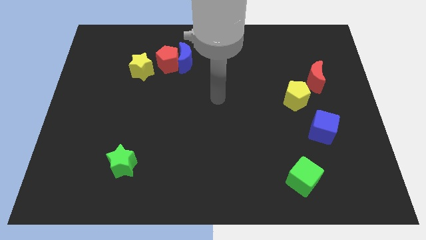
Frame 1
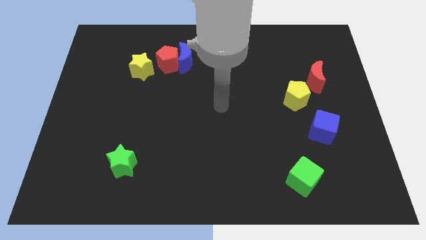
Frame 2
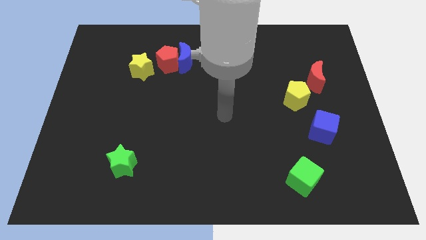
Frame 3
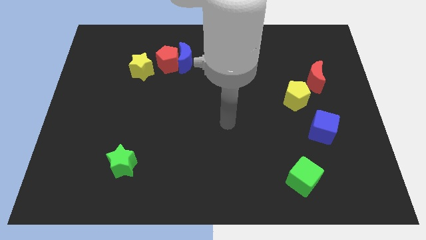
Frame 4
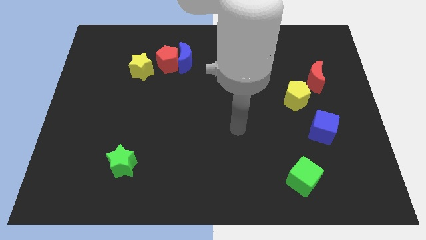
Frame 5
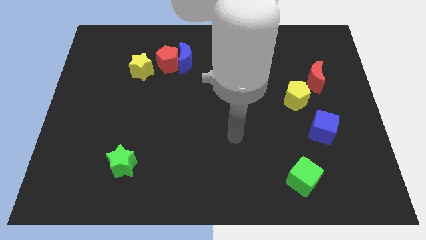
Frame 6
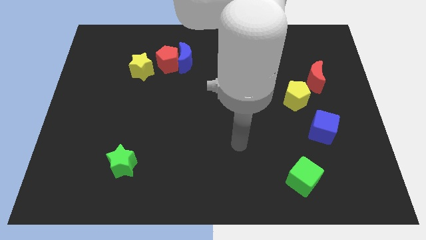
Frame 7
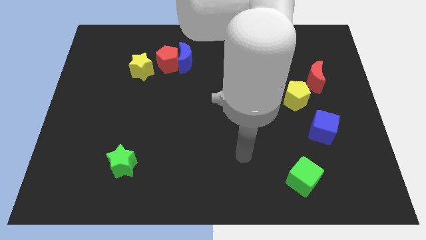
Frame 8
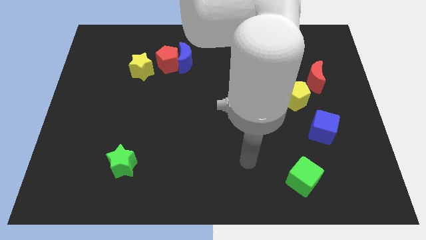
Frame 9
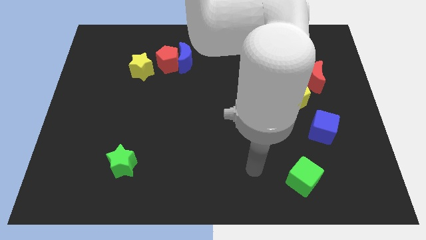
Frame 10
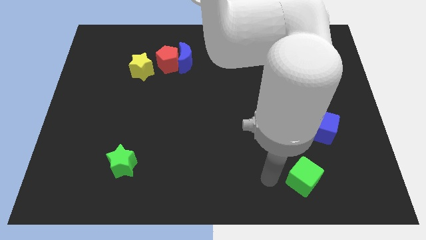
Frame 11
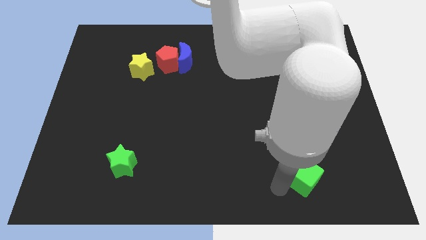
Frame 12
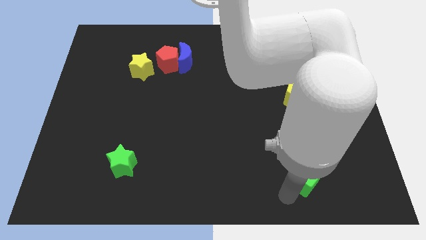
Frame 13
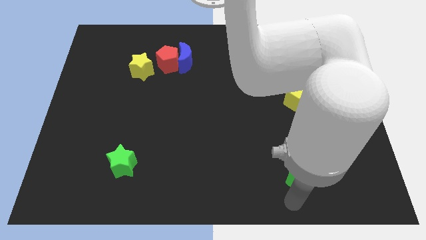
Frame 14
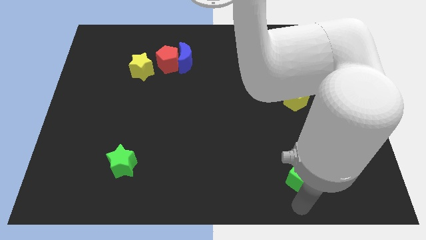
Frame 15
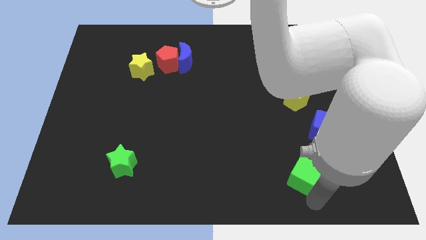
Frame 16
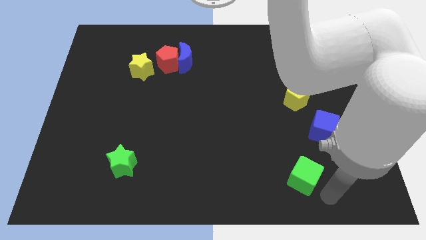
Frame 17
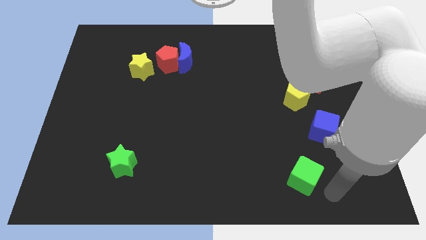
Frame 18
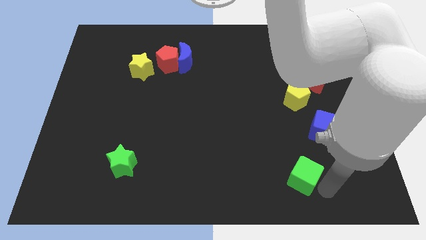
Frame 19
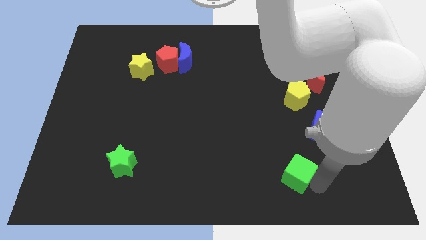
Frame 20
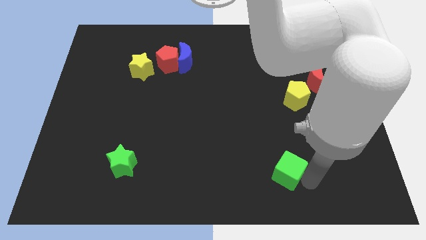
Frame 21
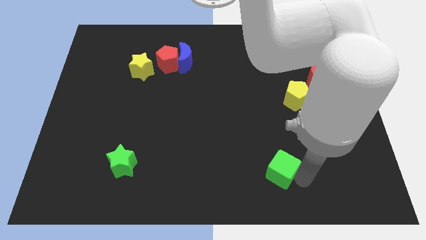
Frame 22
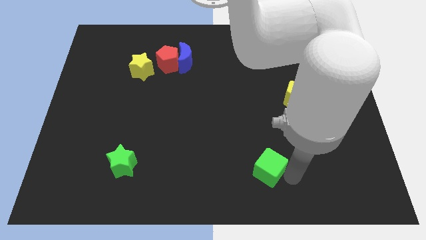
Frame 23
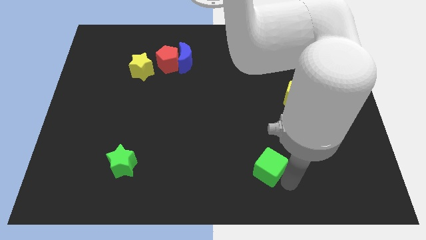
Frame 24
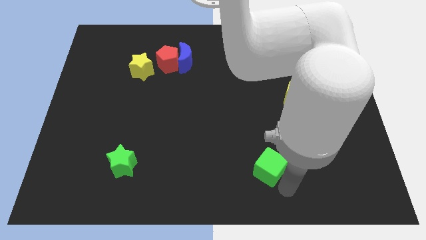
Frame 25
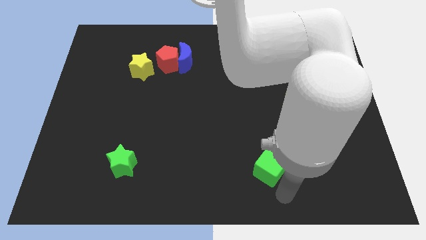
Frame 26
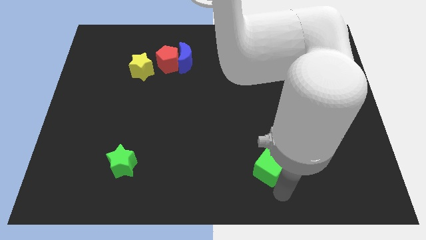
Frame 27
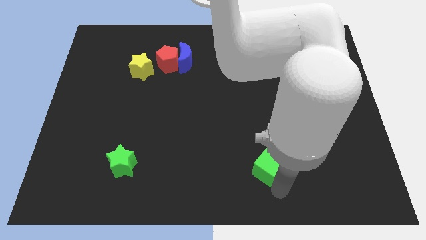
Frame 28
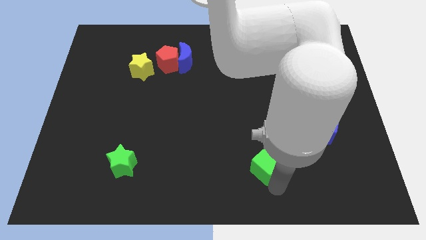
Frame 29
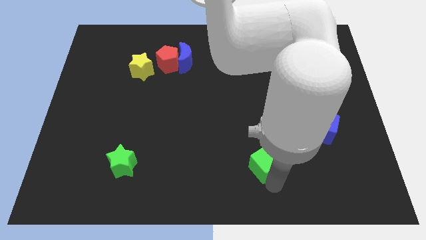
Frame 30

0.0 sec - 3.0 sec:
move the green cube diagonally upwards and left a bit

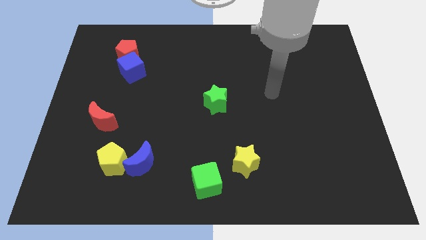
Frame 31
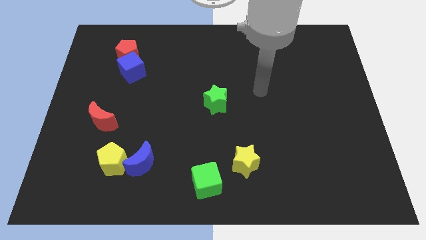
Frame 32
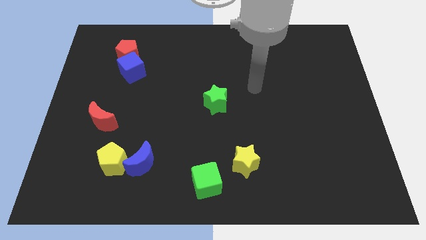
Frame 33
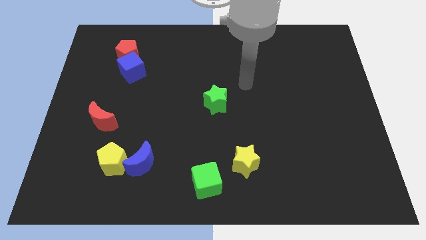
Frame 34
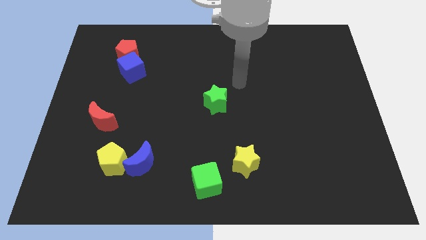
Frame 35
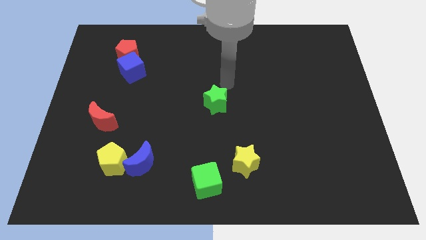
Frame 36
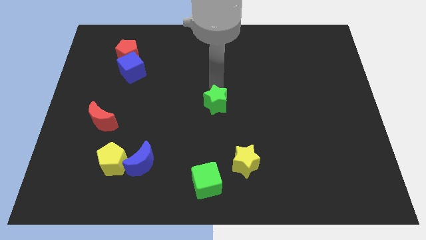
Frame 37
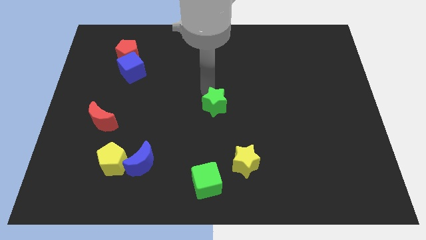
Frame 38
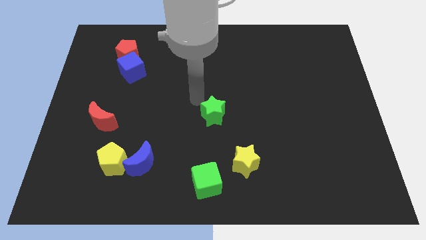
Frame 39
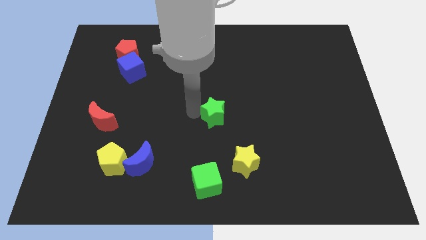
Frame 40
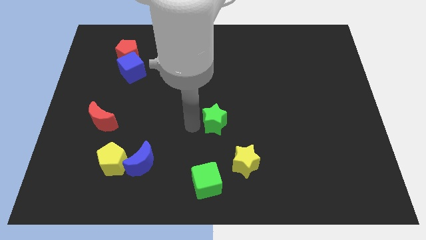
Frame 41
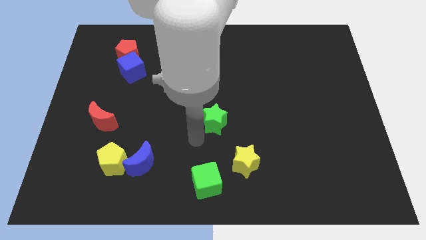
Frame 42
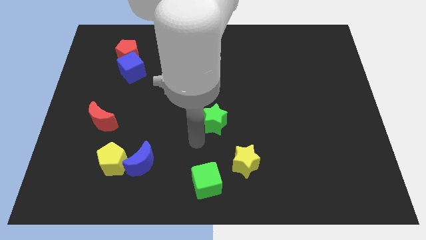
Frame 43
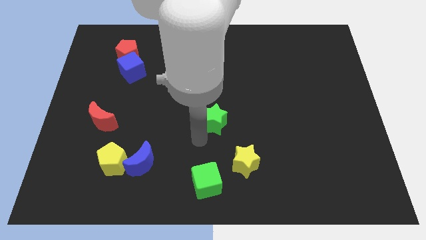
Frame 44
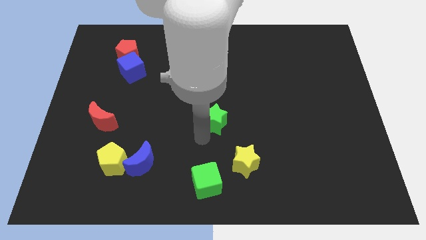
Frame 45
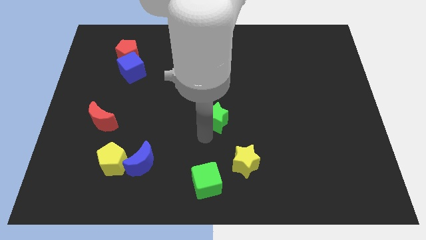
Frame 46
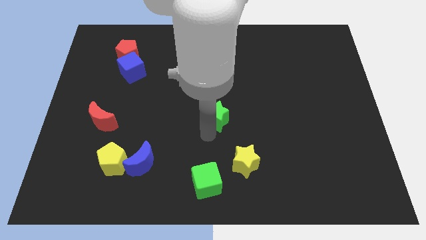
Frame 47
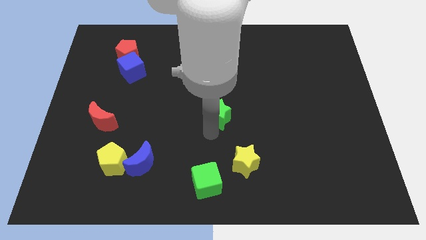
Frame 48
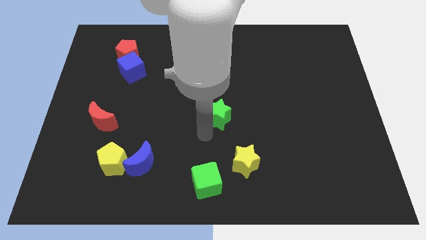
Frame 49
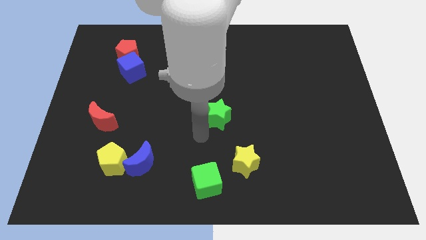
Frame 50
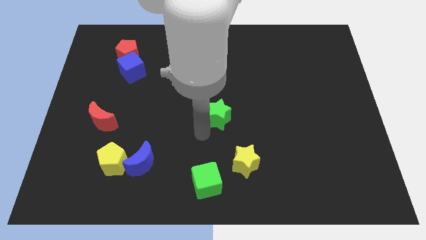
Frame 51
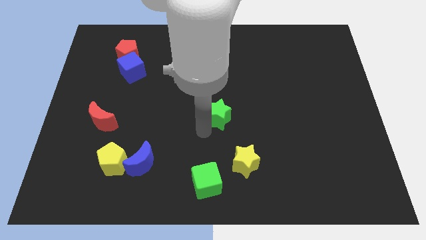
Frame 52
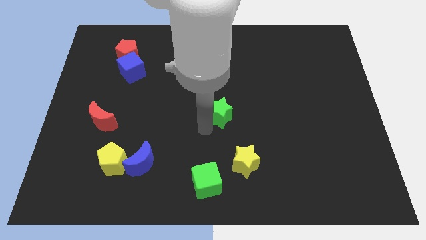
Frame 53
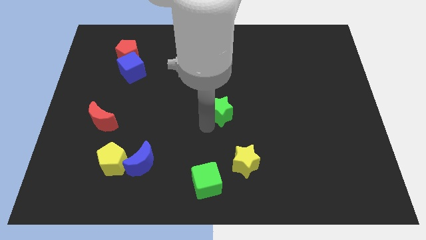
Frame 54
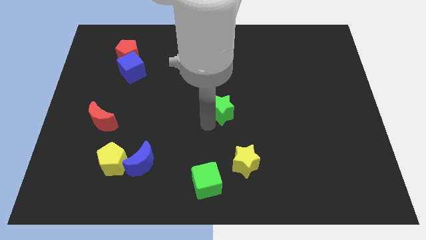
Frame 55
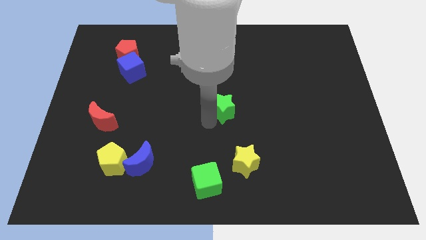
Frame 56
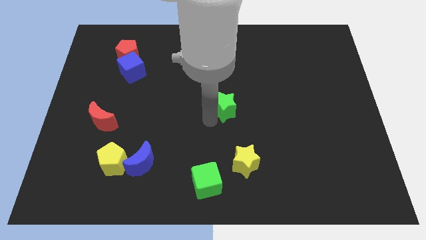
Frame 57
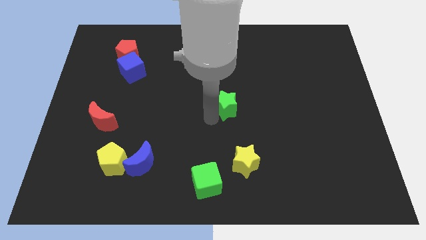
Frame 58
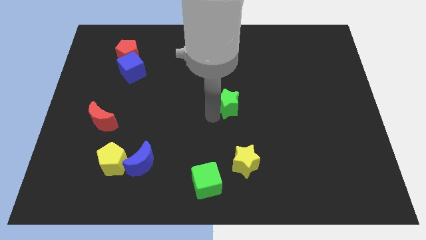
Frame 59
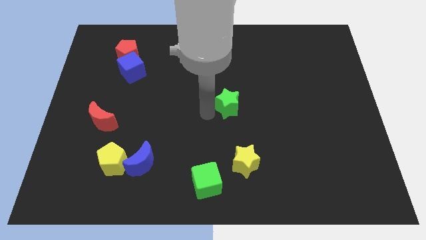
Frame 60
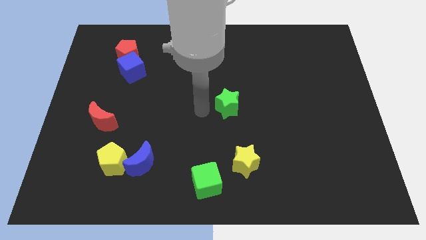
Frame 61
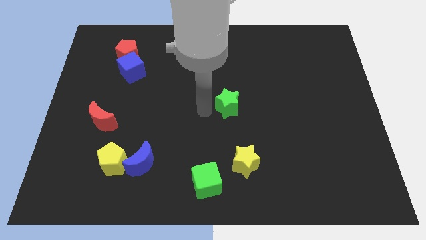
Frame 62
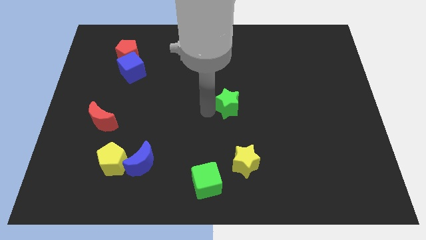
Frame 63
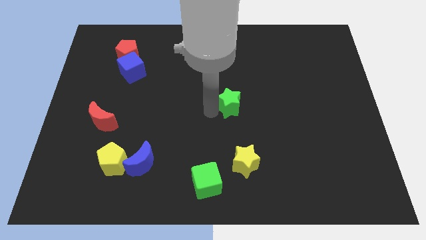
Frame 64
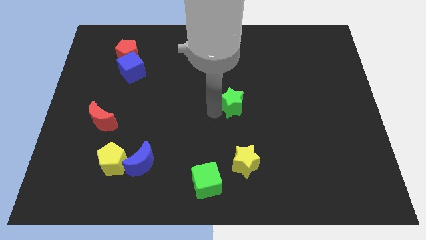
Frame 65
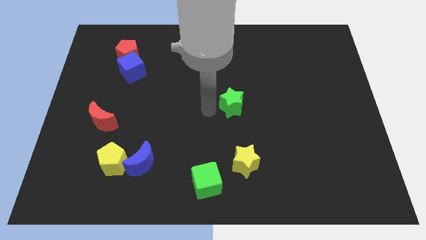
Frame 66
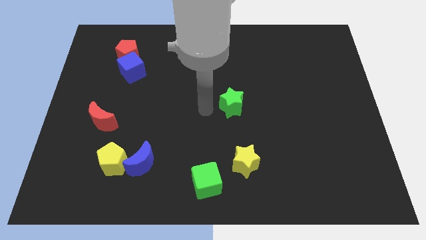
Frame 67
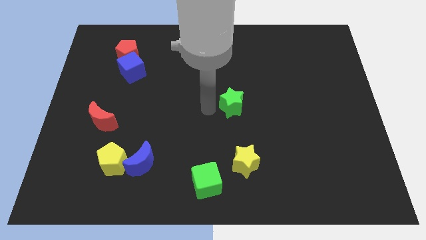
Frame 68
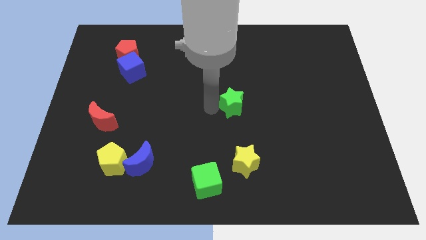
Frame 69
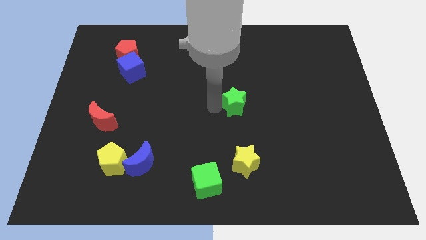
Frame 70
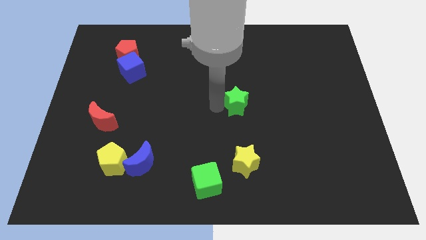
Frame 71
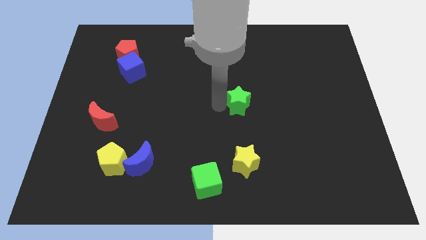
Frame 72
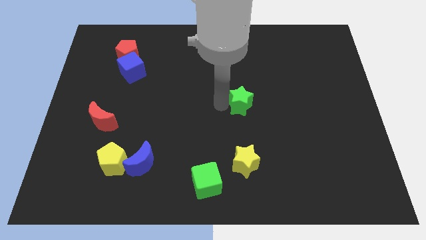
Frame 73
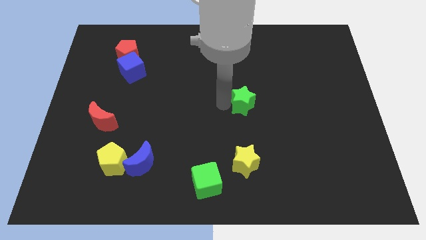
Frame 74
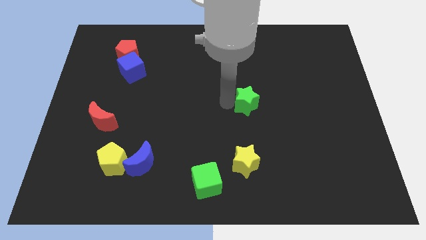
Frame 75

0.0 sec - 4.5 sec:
move the green star right a bit

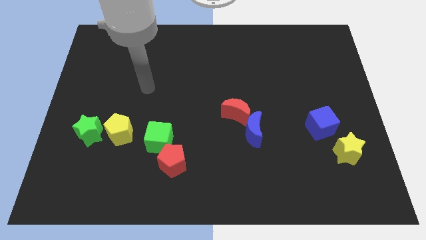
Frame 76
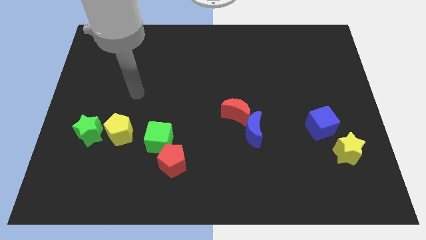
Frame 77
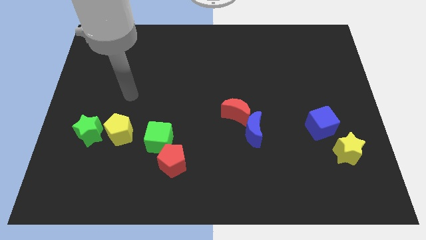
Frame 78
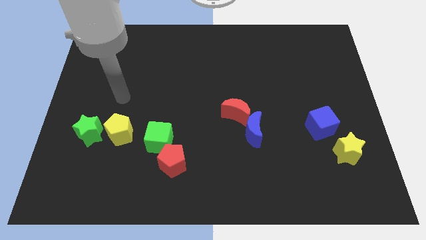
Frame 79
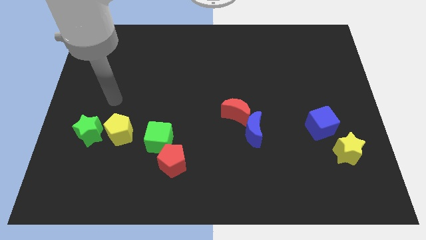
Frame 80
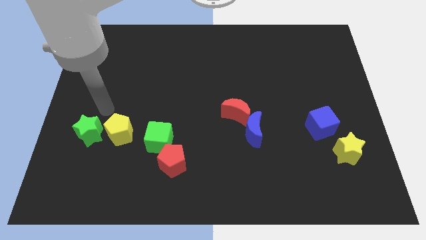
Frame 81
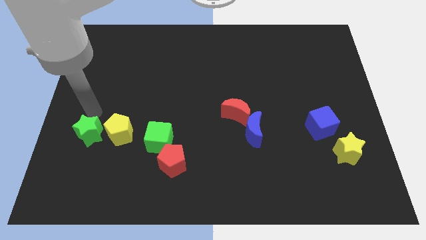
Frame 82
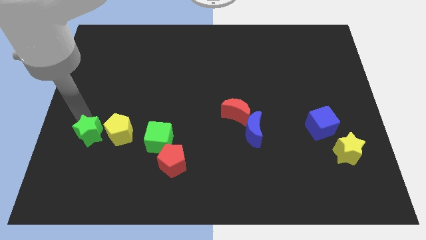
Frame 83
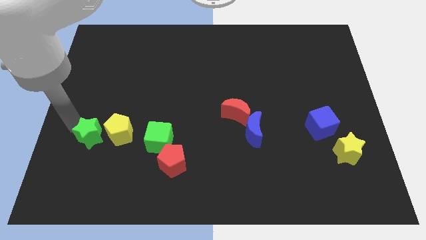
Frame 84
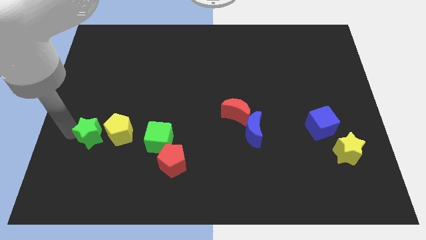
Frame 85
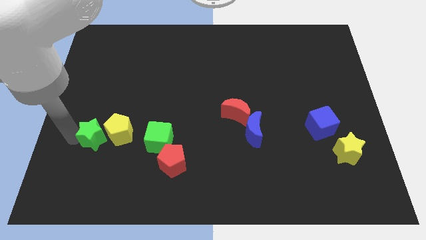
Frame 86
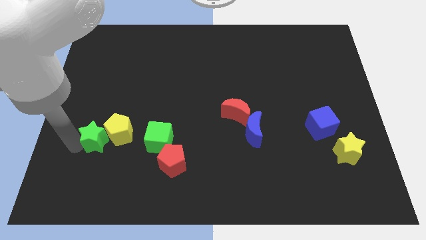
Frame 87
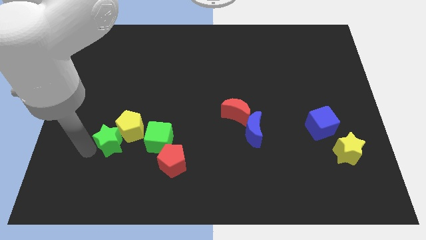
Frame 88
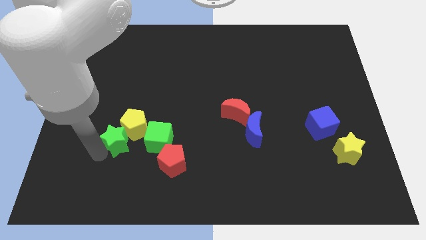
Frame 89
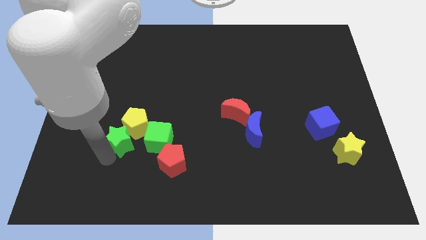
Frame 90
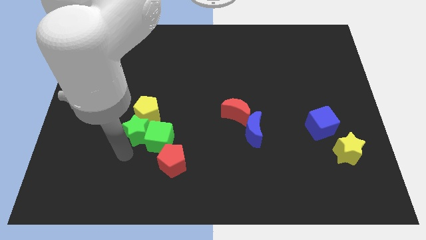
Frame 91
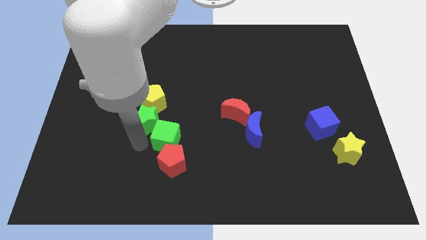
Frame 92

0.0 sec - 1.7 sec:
move the yellow pentagon up a little bit
